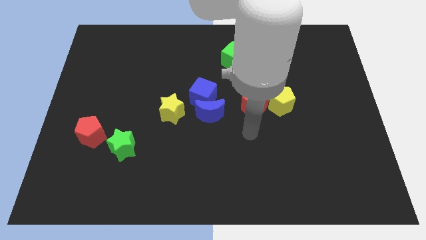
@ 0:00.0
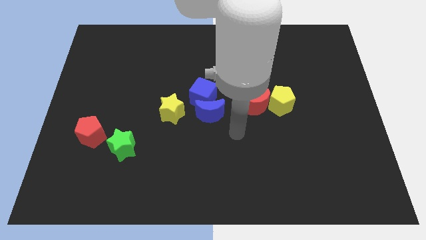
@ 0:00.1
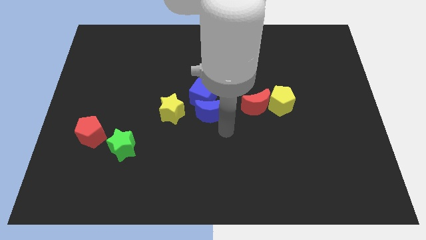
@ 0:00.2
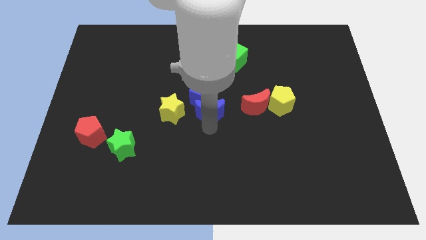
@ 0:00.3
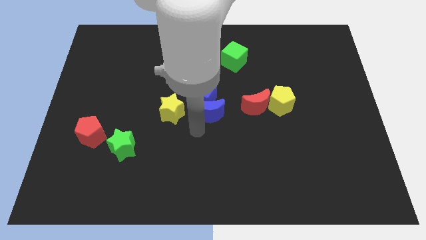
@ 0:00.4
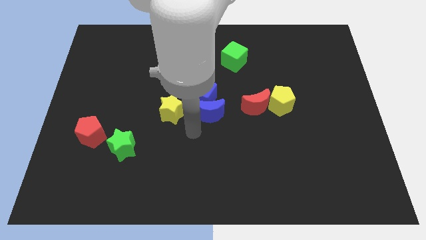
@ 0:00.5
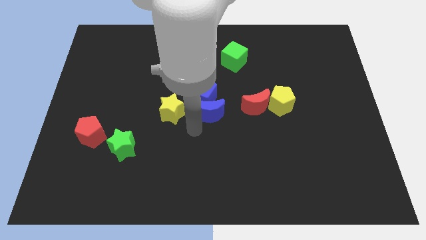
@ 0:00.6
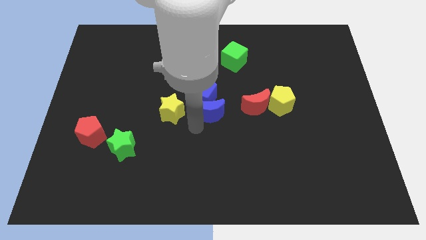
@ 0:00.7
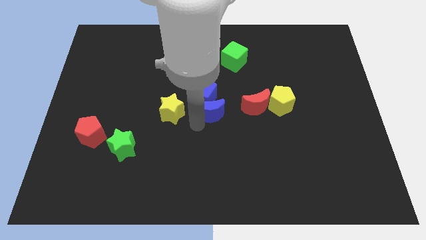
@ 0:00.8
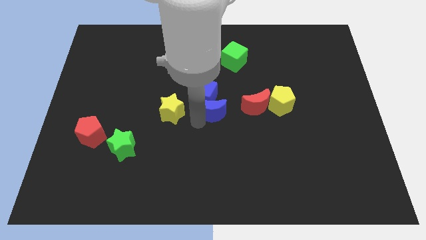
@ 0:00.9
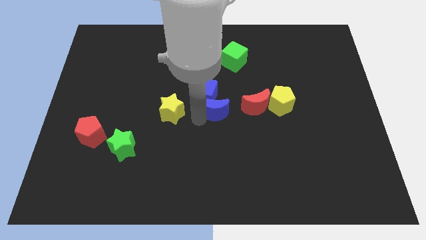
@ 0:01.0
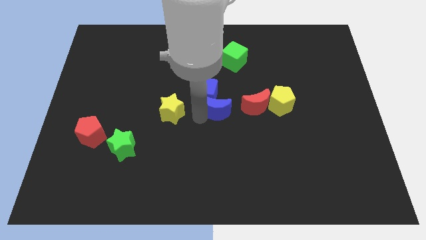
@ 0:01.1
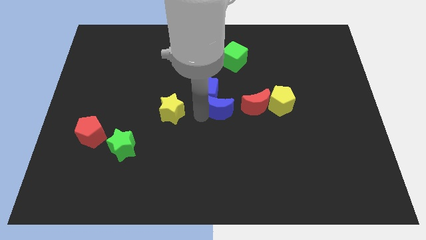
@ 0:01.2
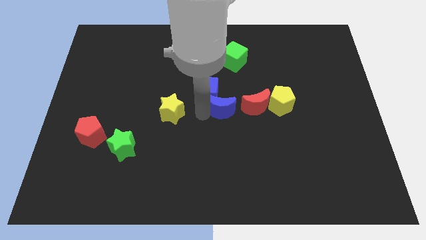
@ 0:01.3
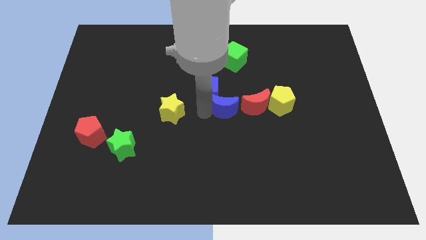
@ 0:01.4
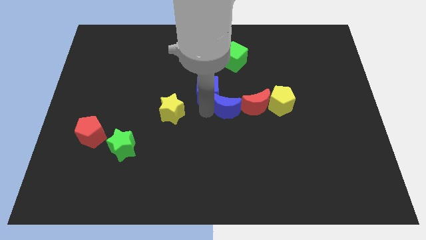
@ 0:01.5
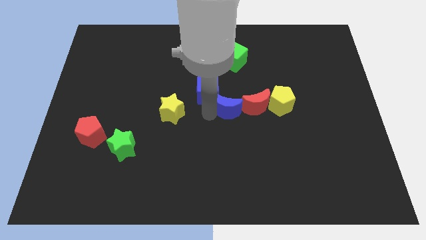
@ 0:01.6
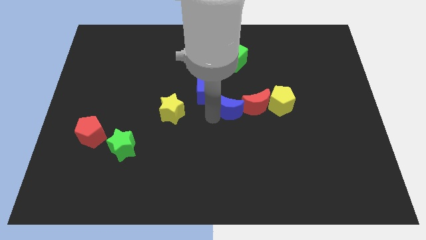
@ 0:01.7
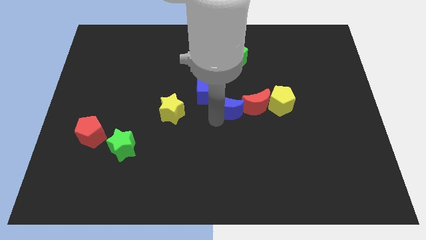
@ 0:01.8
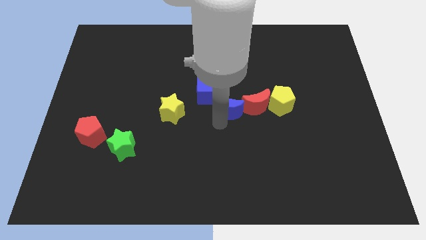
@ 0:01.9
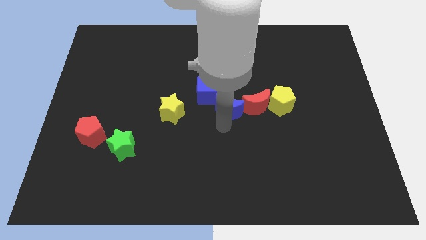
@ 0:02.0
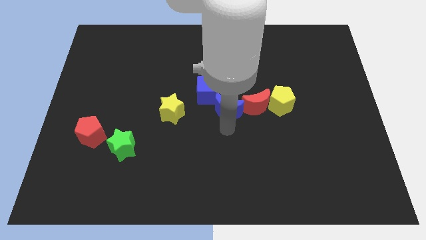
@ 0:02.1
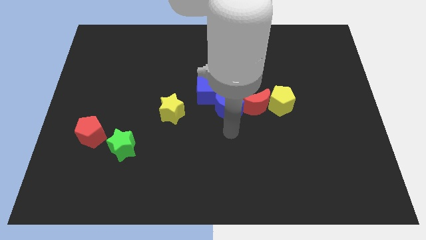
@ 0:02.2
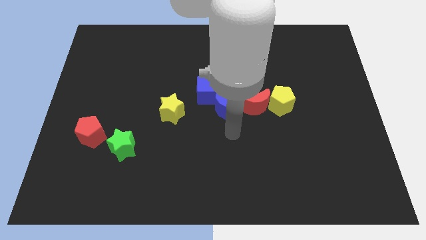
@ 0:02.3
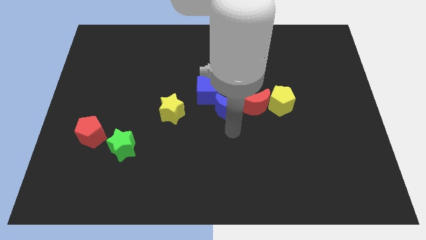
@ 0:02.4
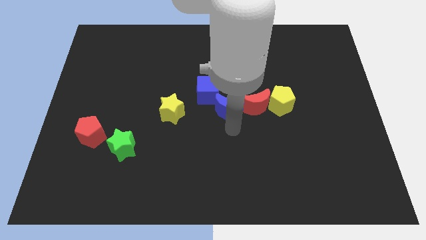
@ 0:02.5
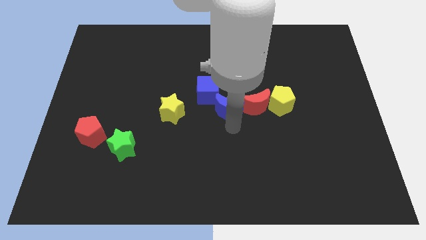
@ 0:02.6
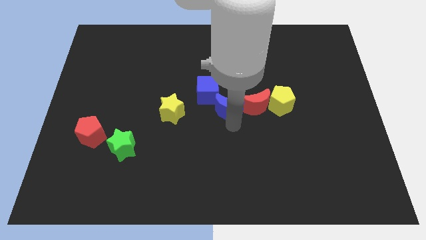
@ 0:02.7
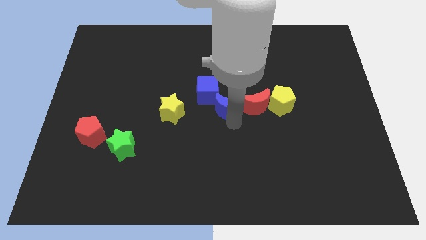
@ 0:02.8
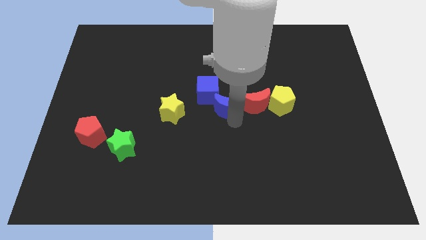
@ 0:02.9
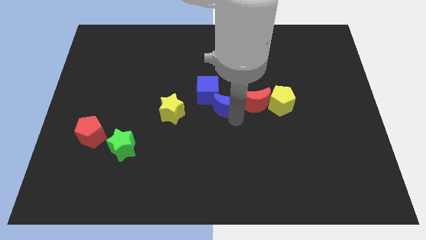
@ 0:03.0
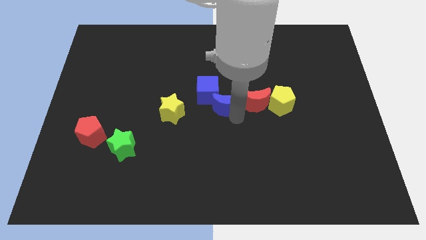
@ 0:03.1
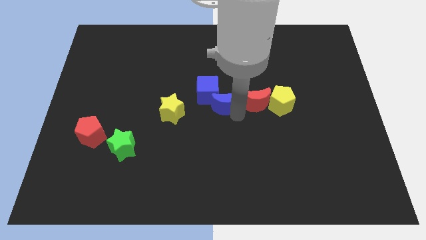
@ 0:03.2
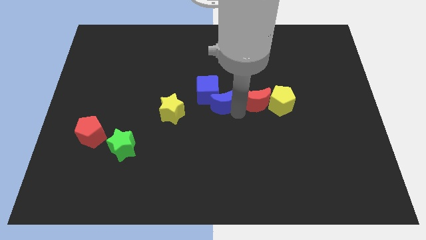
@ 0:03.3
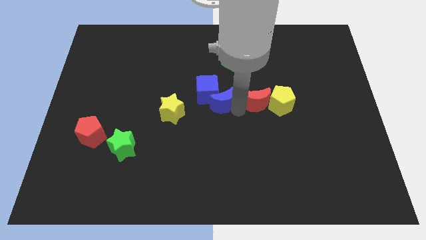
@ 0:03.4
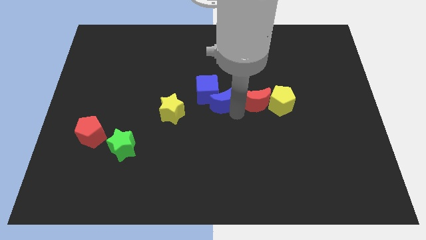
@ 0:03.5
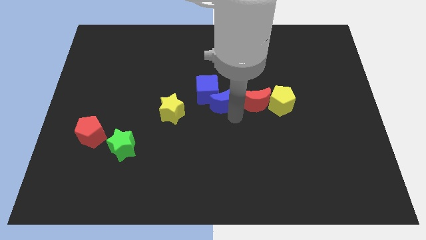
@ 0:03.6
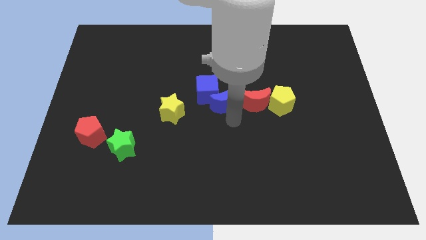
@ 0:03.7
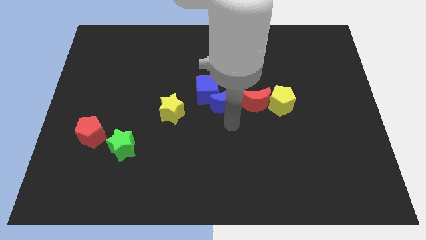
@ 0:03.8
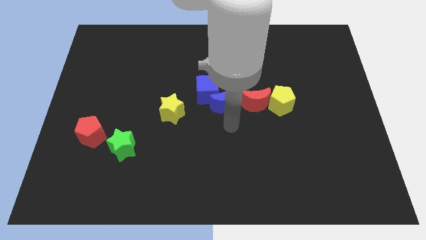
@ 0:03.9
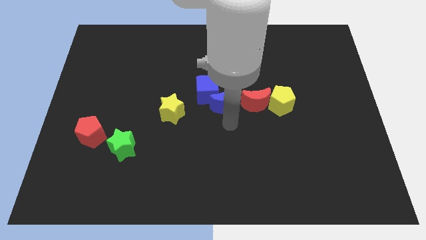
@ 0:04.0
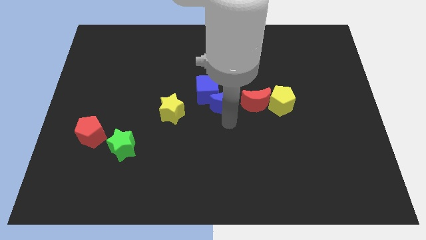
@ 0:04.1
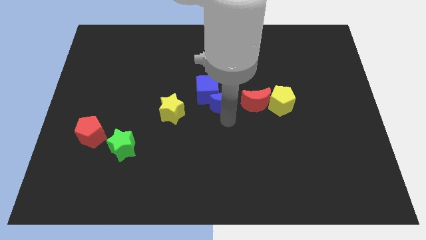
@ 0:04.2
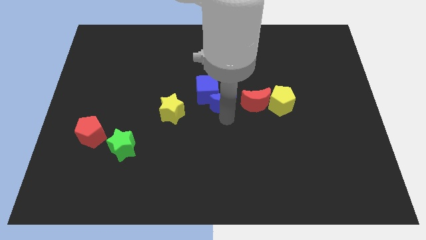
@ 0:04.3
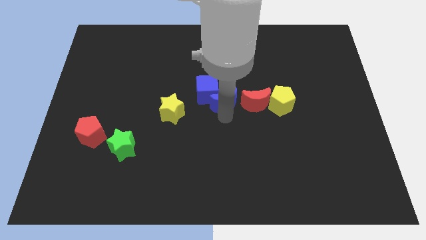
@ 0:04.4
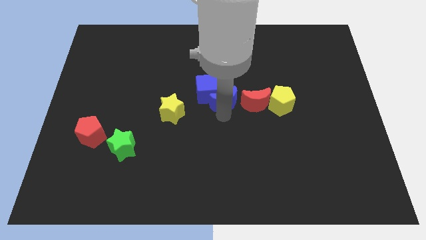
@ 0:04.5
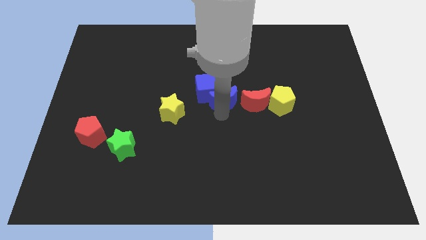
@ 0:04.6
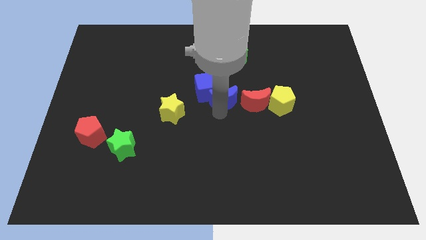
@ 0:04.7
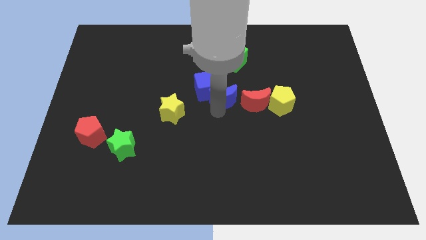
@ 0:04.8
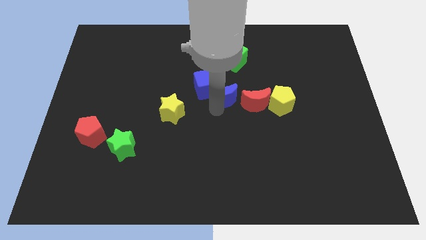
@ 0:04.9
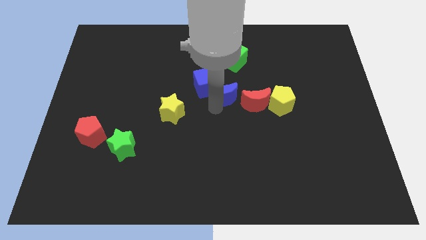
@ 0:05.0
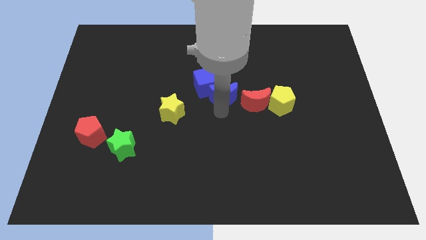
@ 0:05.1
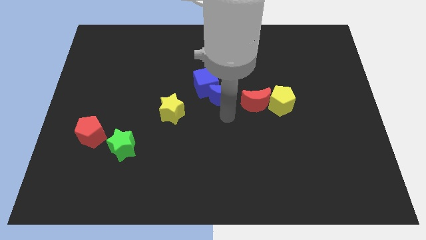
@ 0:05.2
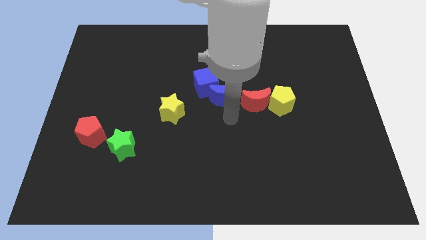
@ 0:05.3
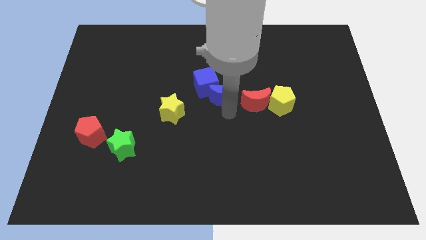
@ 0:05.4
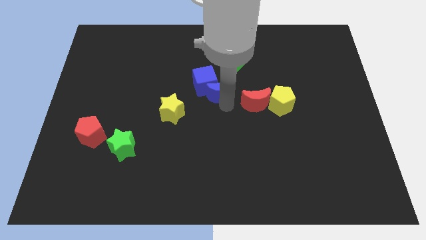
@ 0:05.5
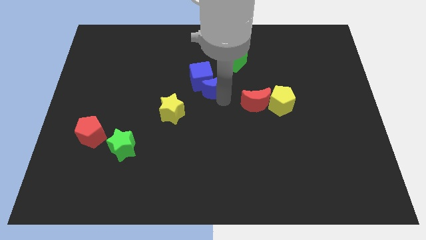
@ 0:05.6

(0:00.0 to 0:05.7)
slightly push the blue moon upwards

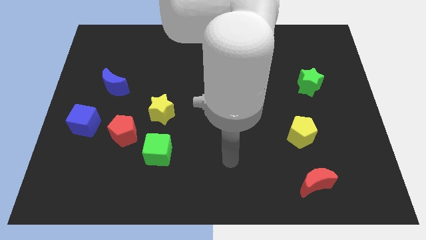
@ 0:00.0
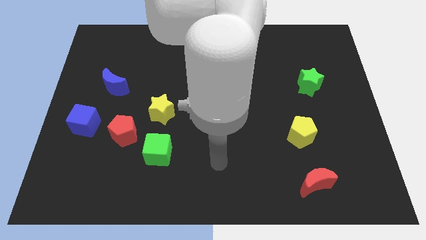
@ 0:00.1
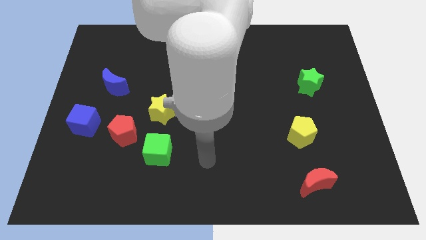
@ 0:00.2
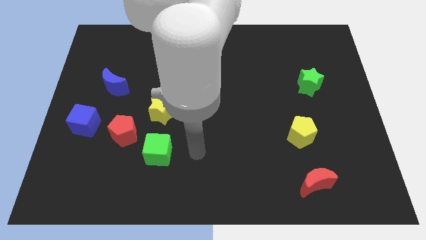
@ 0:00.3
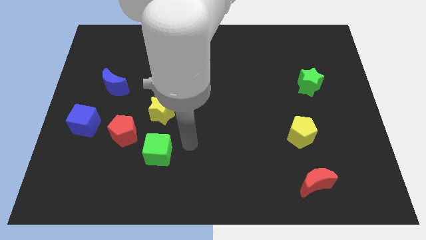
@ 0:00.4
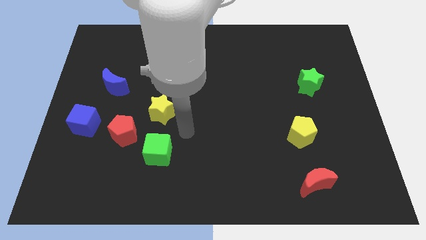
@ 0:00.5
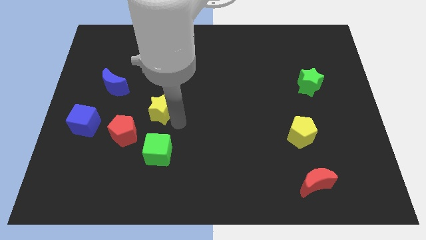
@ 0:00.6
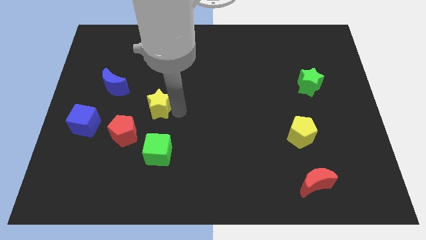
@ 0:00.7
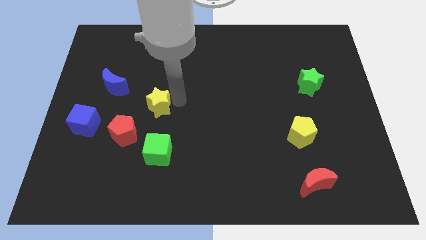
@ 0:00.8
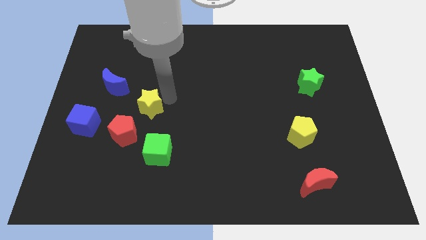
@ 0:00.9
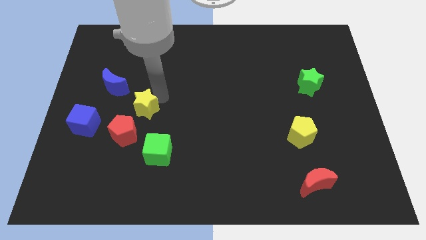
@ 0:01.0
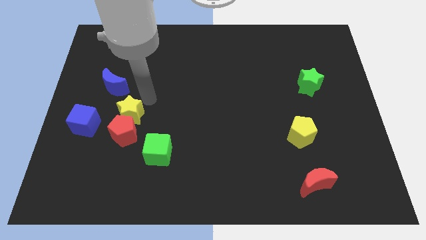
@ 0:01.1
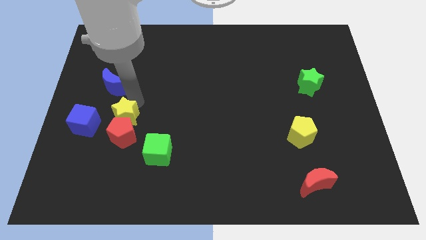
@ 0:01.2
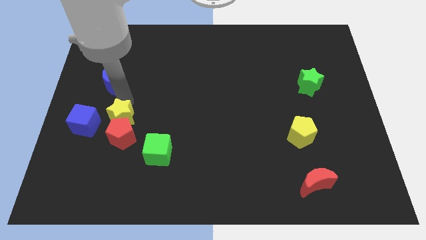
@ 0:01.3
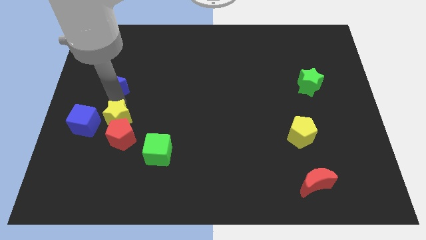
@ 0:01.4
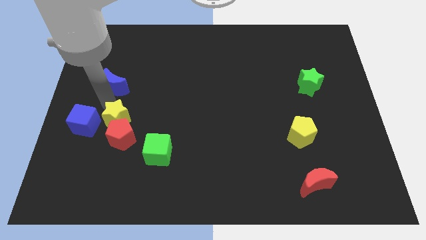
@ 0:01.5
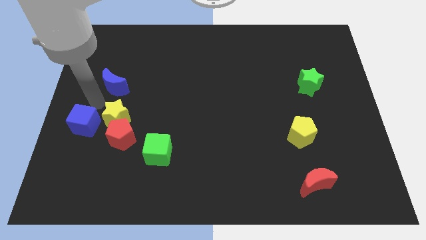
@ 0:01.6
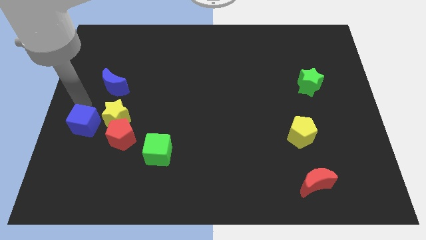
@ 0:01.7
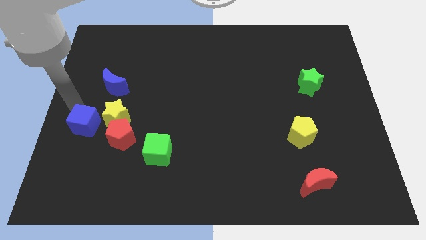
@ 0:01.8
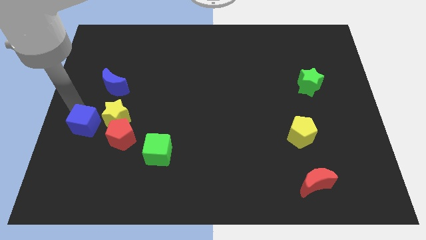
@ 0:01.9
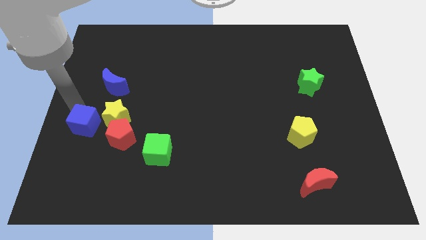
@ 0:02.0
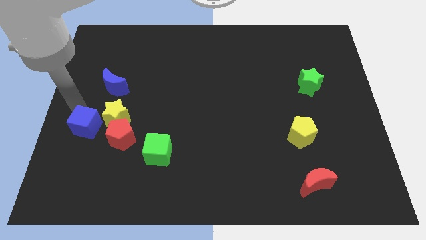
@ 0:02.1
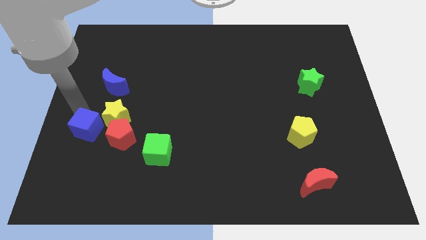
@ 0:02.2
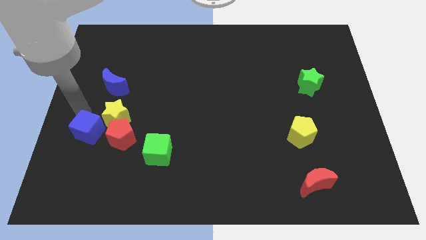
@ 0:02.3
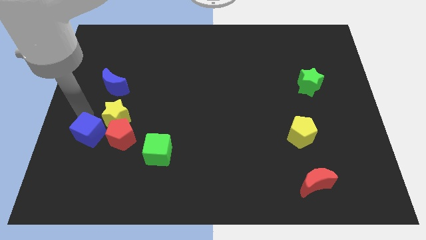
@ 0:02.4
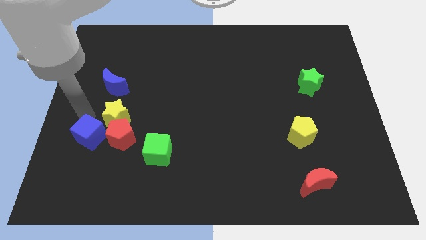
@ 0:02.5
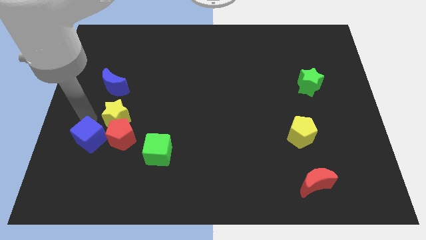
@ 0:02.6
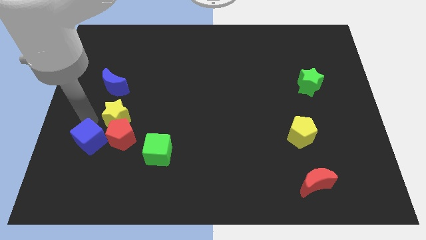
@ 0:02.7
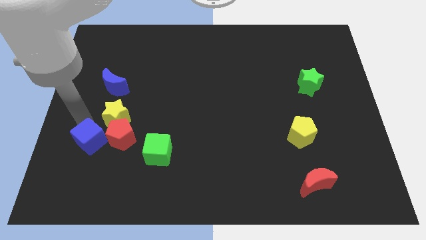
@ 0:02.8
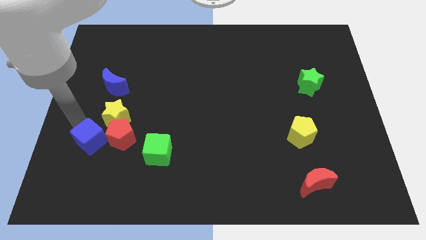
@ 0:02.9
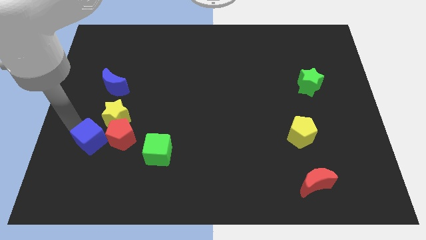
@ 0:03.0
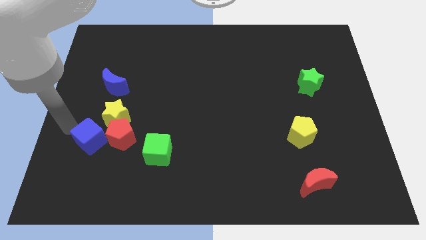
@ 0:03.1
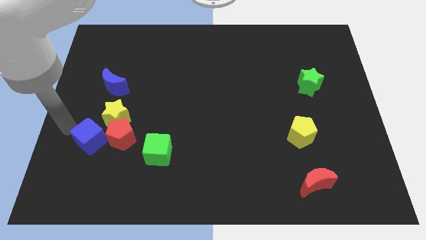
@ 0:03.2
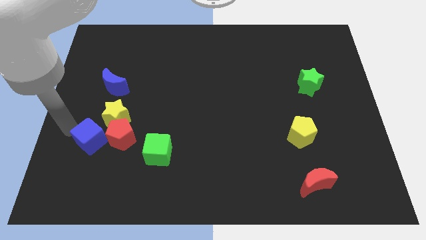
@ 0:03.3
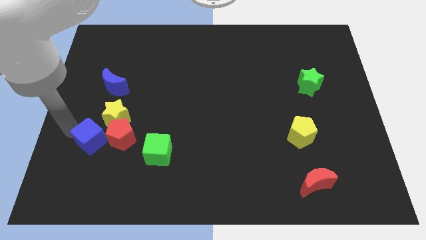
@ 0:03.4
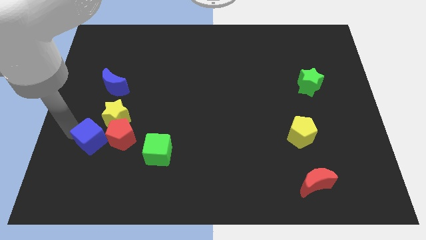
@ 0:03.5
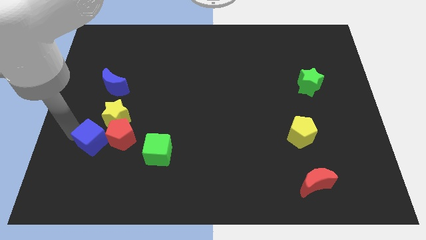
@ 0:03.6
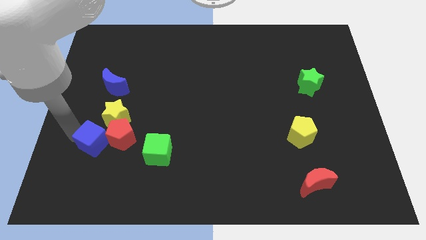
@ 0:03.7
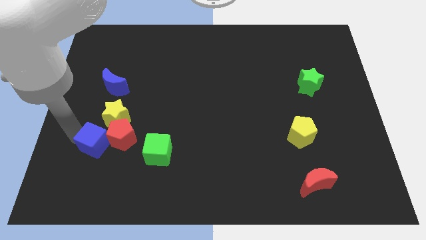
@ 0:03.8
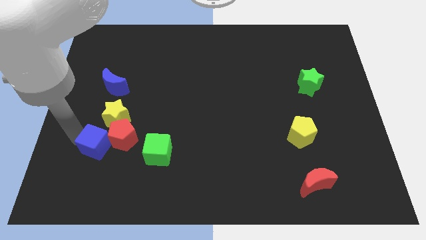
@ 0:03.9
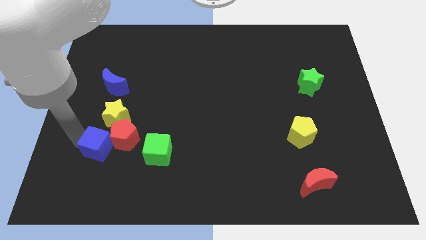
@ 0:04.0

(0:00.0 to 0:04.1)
push the blue cube down and to the right diagonally a bit
